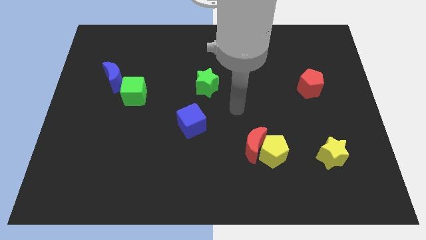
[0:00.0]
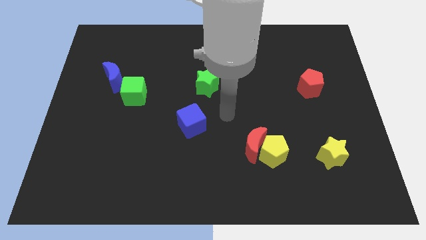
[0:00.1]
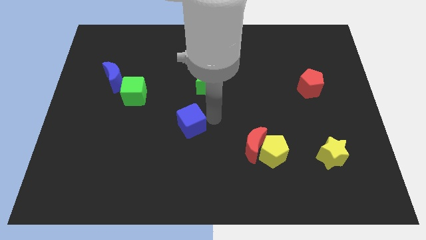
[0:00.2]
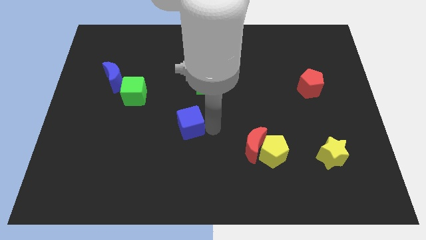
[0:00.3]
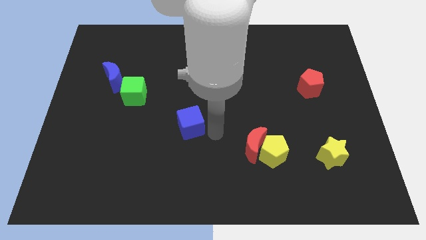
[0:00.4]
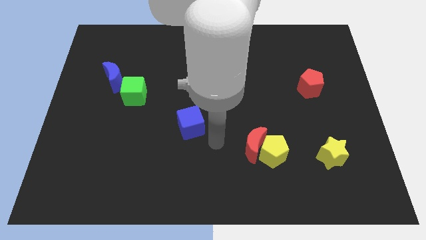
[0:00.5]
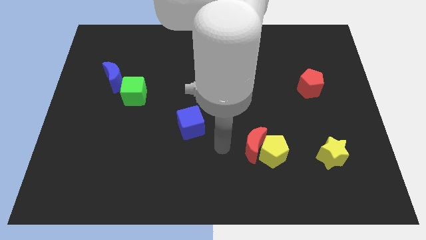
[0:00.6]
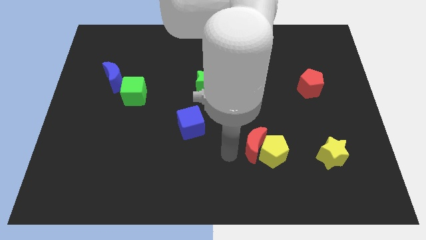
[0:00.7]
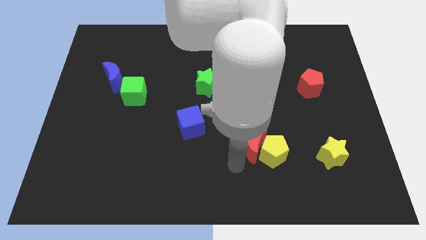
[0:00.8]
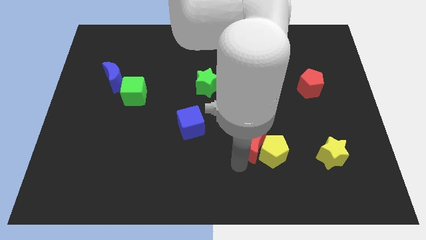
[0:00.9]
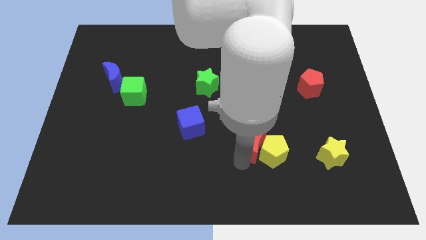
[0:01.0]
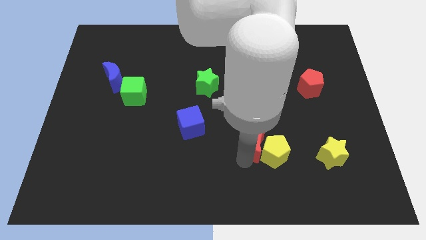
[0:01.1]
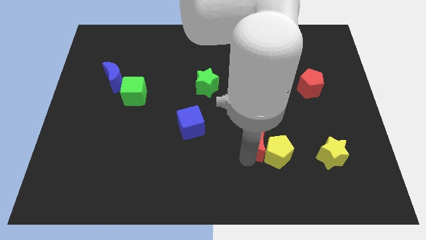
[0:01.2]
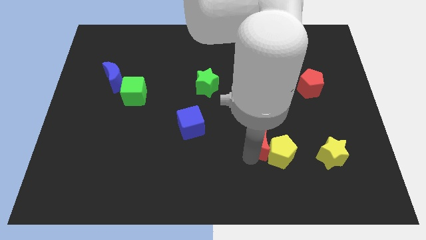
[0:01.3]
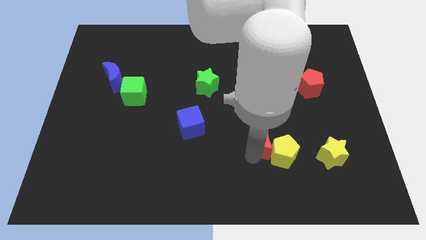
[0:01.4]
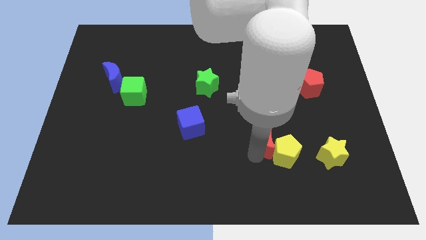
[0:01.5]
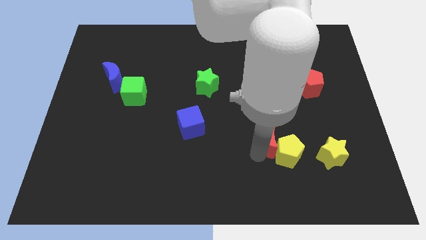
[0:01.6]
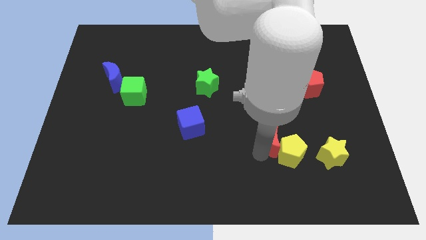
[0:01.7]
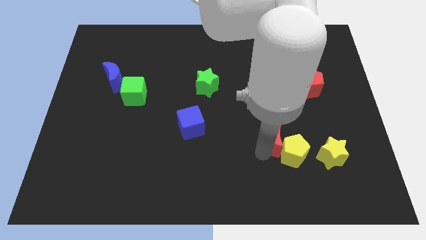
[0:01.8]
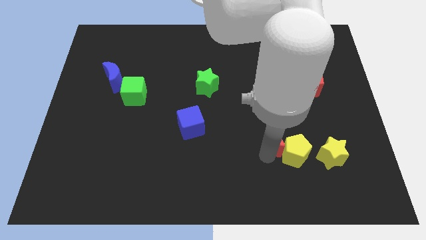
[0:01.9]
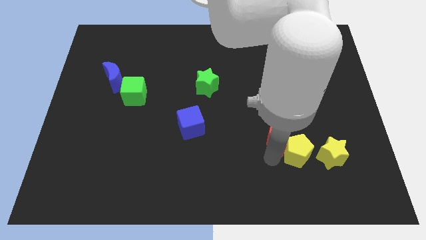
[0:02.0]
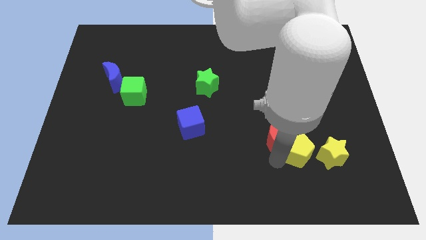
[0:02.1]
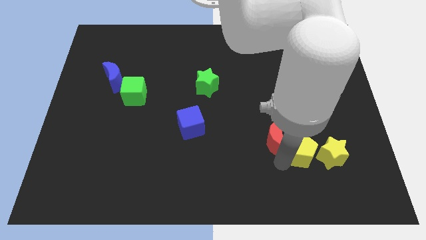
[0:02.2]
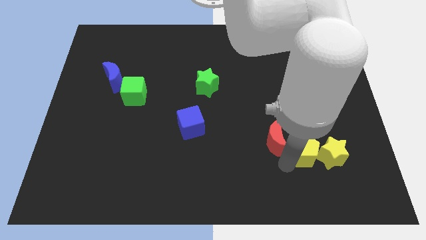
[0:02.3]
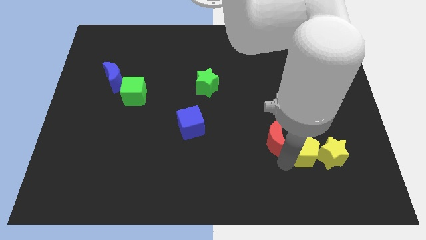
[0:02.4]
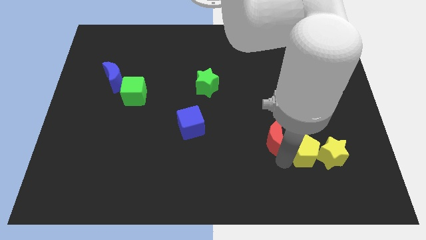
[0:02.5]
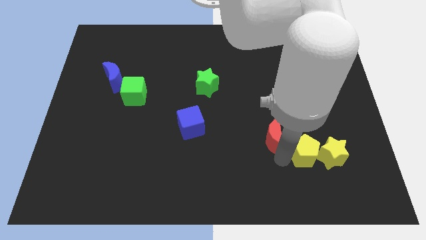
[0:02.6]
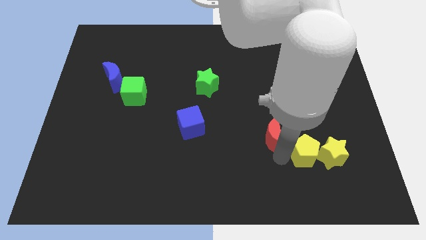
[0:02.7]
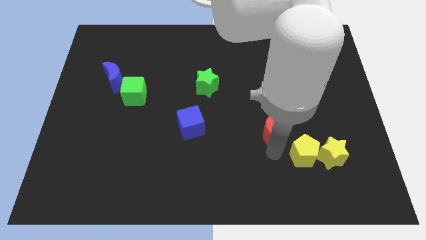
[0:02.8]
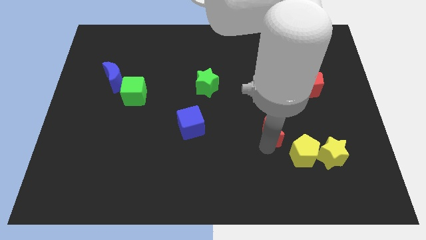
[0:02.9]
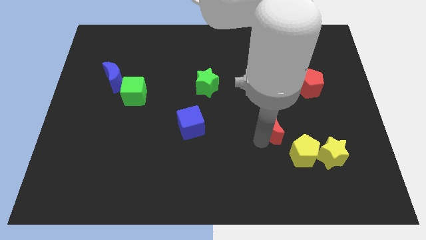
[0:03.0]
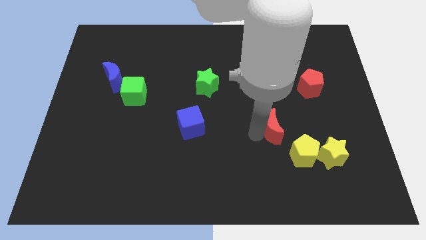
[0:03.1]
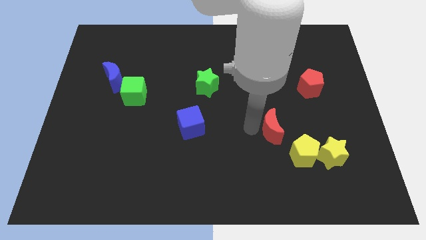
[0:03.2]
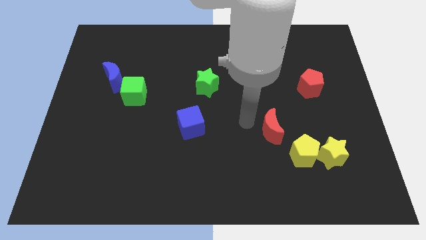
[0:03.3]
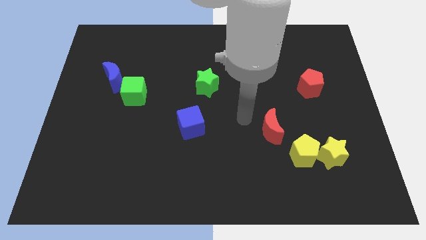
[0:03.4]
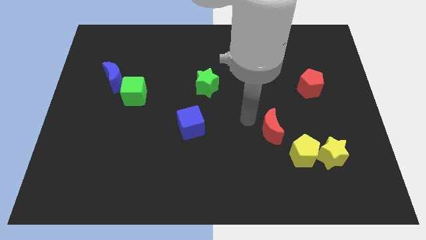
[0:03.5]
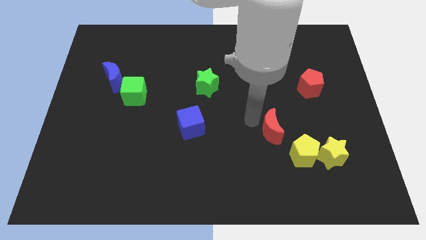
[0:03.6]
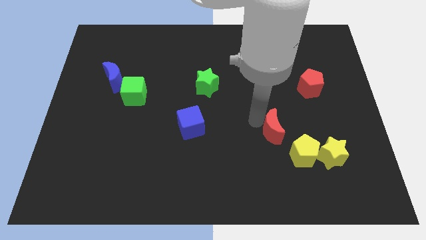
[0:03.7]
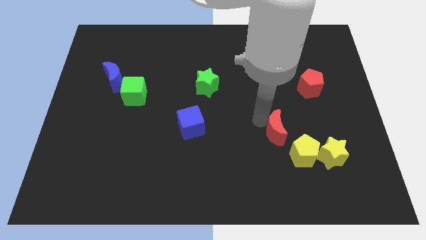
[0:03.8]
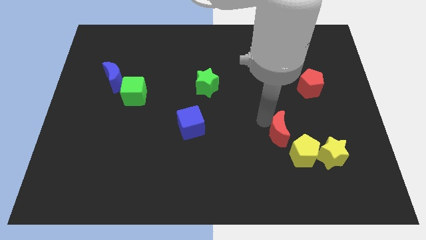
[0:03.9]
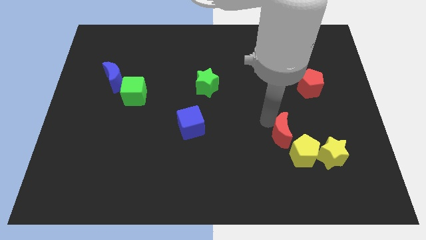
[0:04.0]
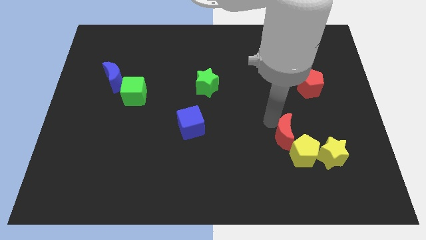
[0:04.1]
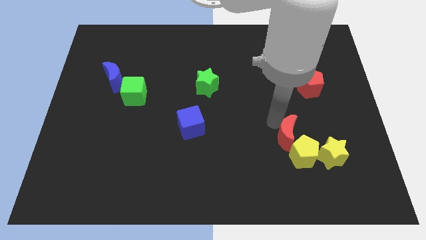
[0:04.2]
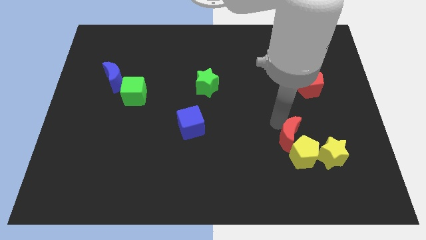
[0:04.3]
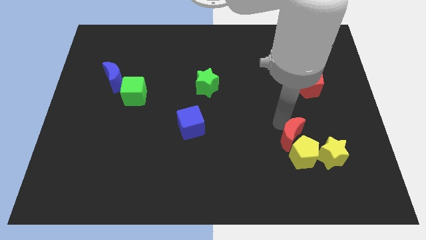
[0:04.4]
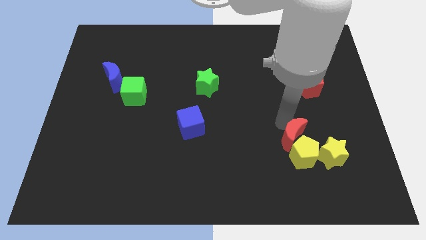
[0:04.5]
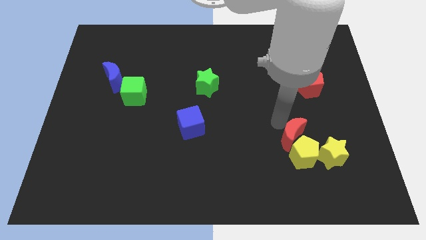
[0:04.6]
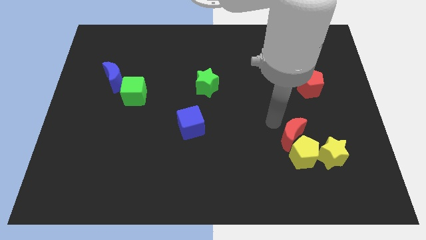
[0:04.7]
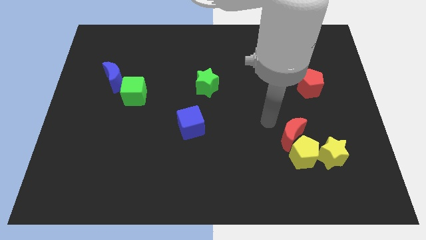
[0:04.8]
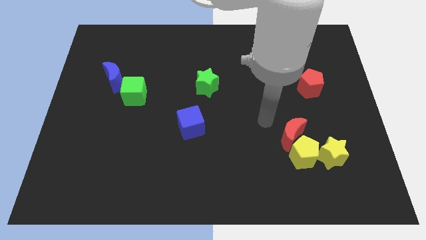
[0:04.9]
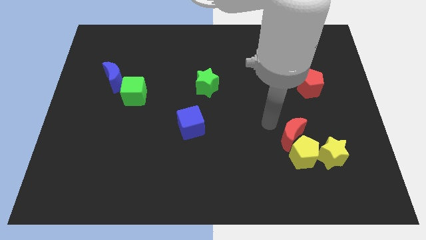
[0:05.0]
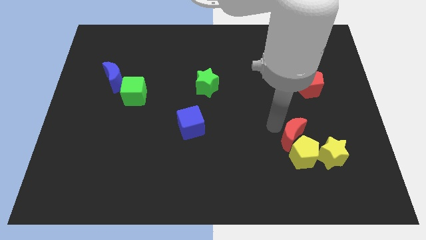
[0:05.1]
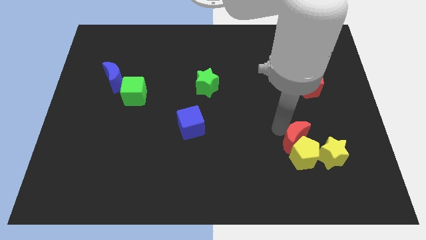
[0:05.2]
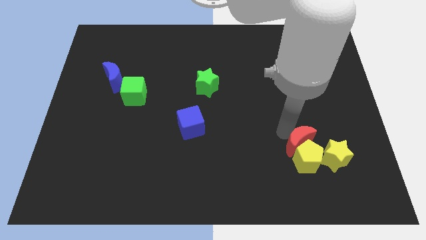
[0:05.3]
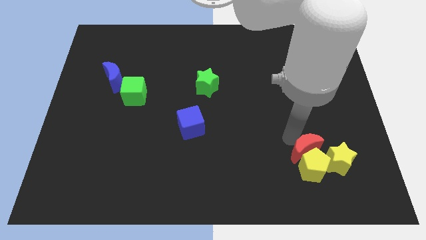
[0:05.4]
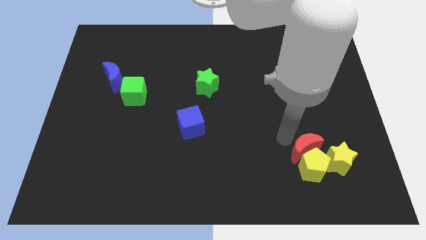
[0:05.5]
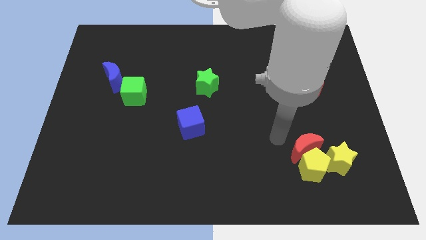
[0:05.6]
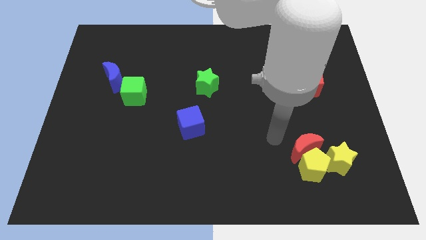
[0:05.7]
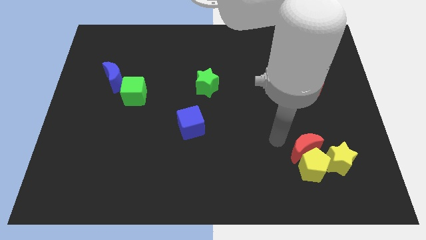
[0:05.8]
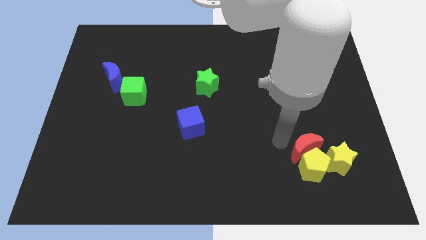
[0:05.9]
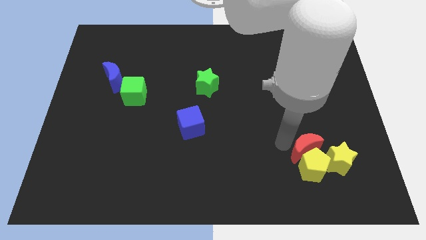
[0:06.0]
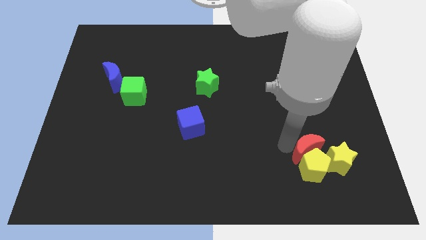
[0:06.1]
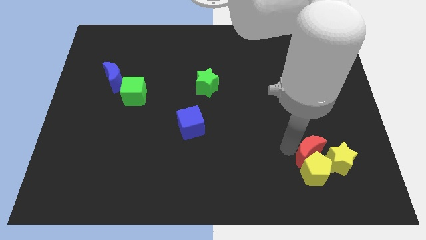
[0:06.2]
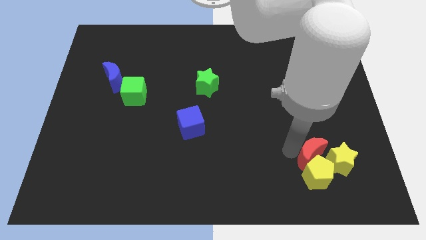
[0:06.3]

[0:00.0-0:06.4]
move the red moon next to the yellow star

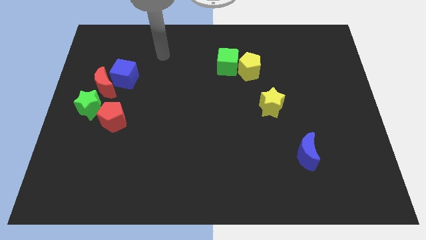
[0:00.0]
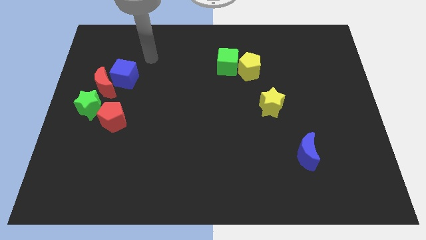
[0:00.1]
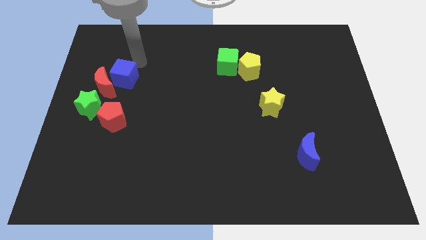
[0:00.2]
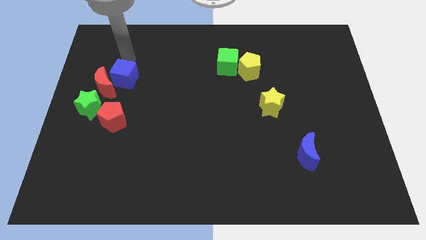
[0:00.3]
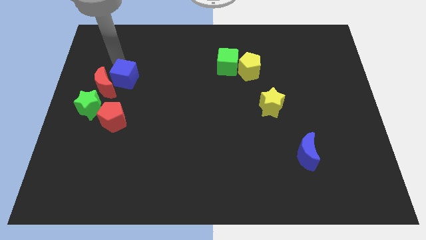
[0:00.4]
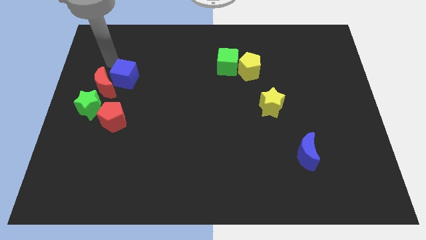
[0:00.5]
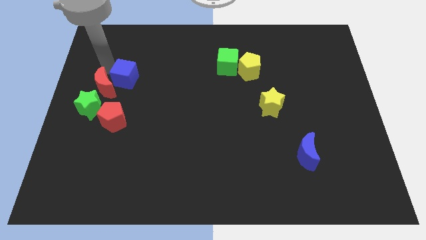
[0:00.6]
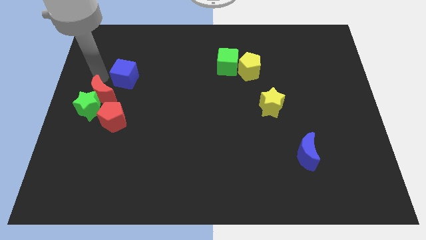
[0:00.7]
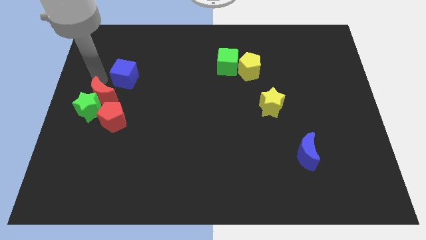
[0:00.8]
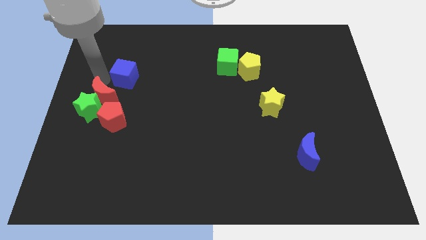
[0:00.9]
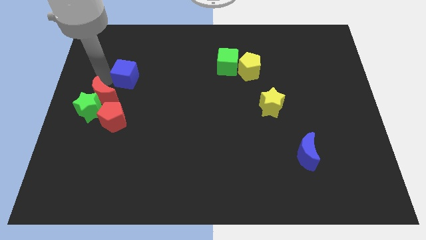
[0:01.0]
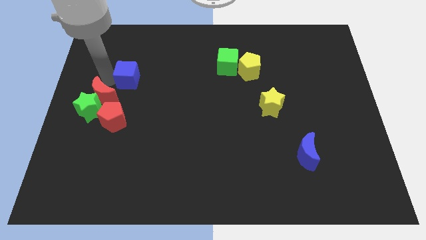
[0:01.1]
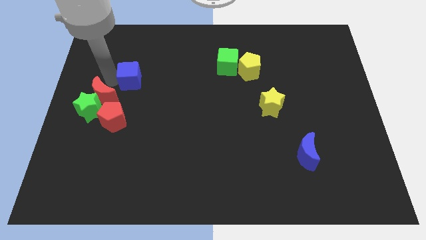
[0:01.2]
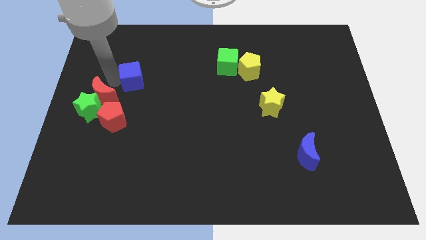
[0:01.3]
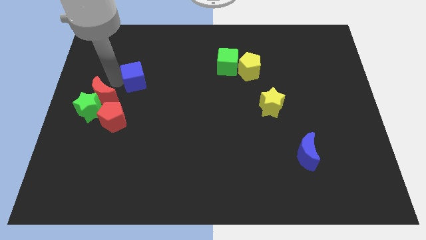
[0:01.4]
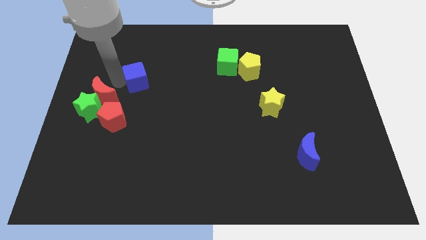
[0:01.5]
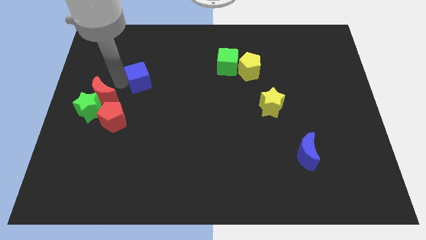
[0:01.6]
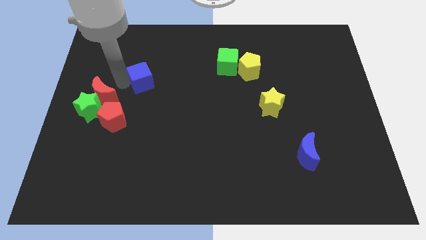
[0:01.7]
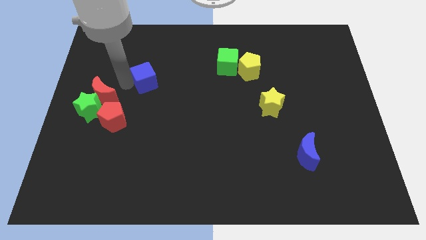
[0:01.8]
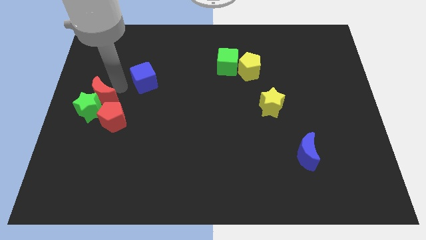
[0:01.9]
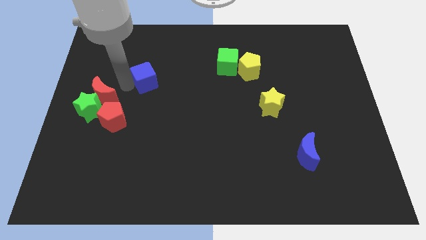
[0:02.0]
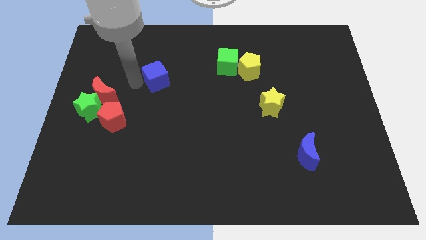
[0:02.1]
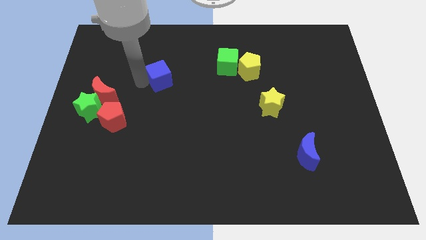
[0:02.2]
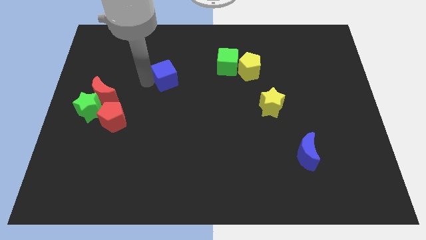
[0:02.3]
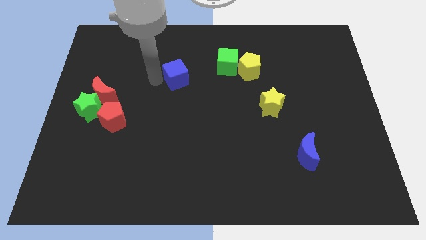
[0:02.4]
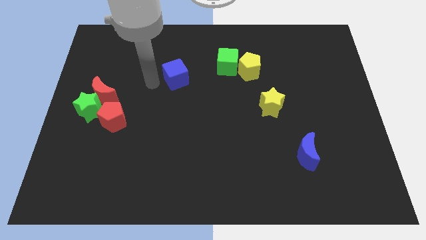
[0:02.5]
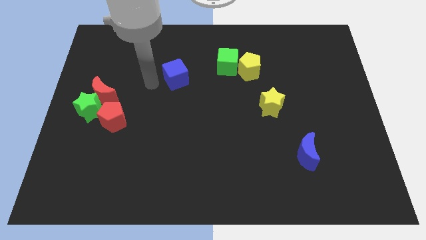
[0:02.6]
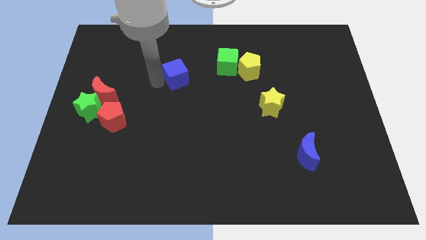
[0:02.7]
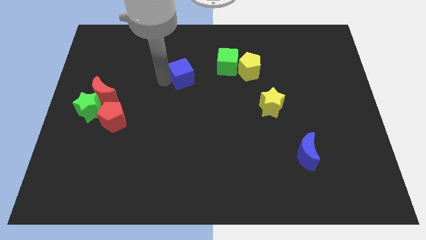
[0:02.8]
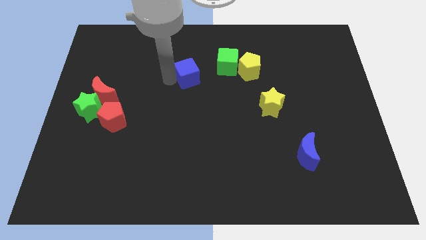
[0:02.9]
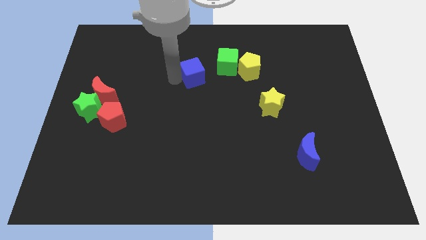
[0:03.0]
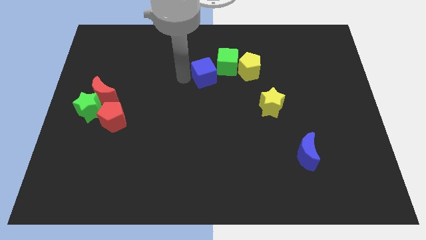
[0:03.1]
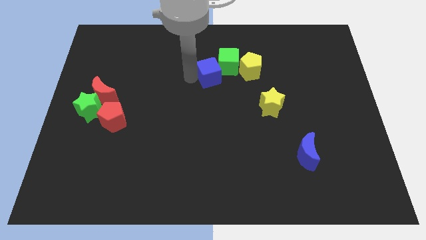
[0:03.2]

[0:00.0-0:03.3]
slide the blue cube to the green cube
